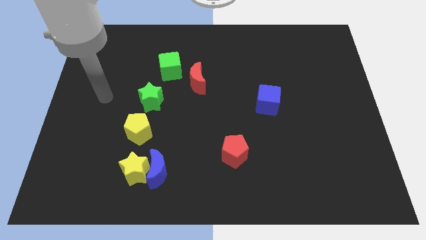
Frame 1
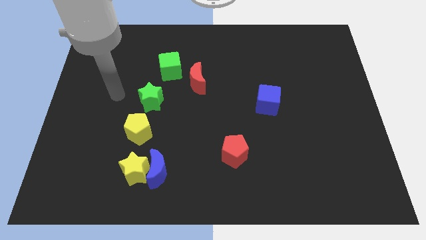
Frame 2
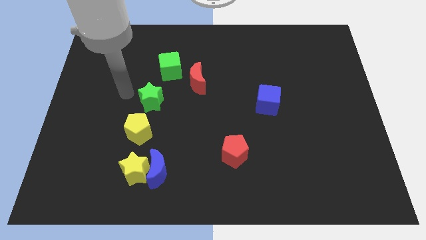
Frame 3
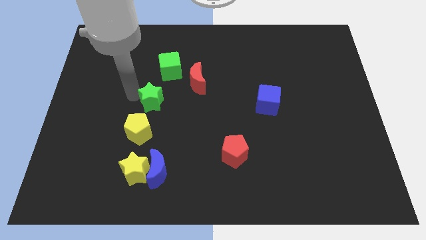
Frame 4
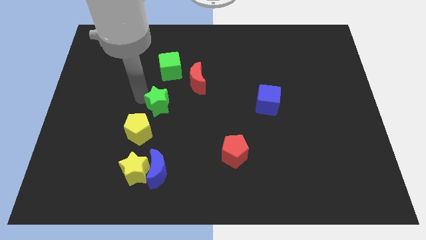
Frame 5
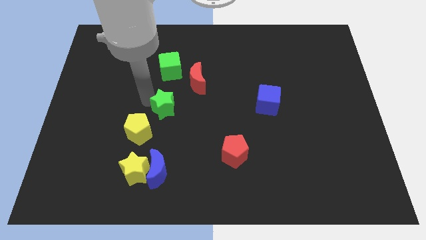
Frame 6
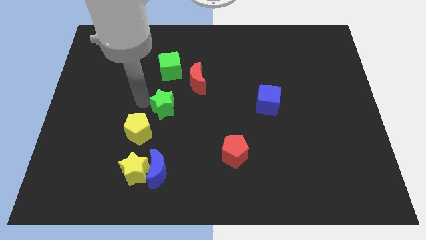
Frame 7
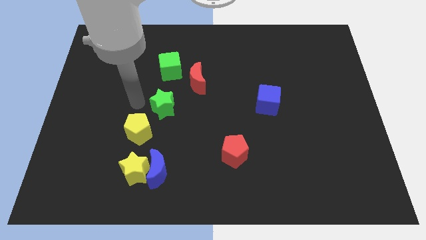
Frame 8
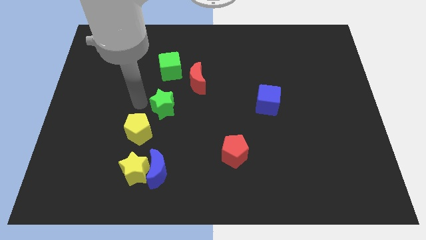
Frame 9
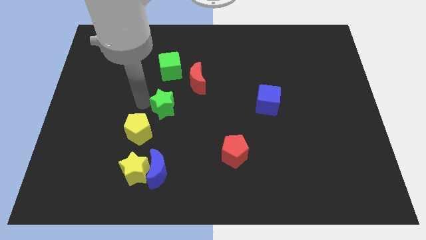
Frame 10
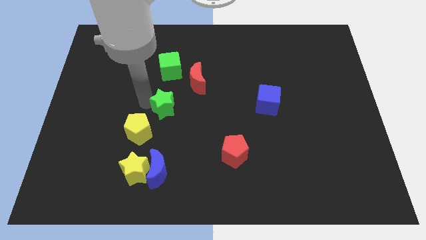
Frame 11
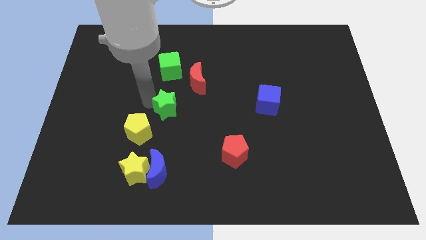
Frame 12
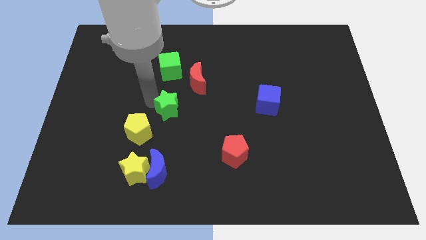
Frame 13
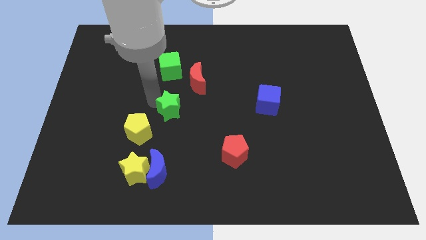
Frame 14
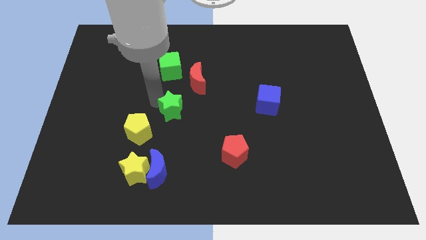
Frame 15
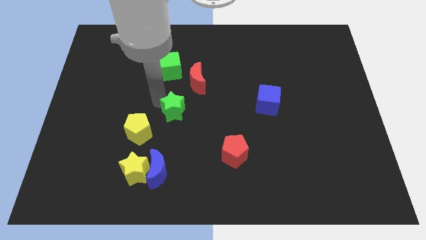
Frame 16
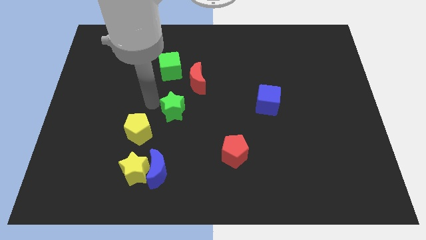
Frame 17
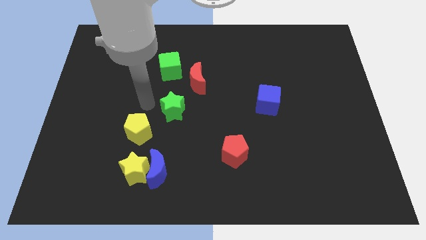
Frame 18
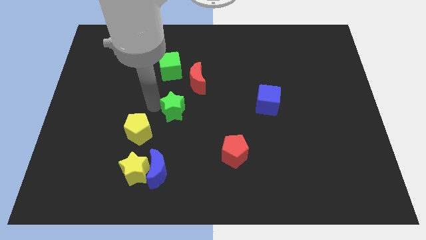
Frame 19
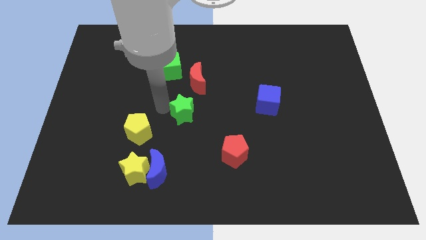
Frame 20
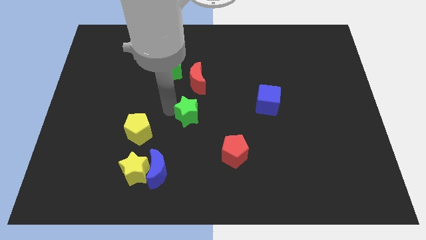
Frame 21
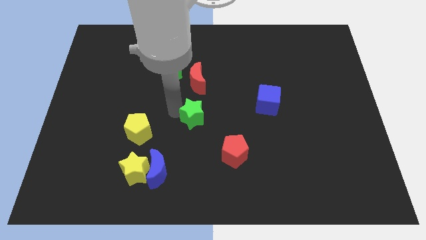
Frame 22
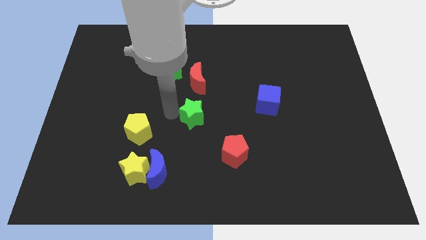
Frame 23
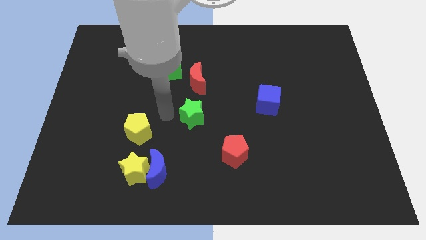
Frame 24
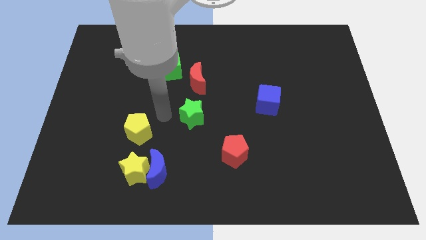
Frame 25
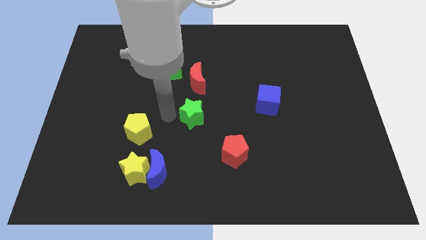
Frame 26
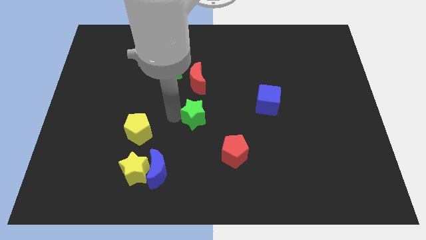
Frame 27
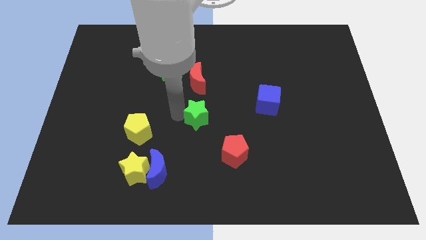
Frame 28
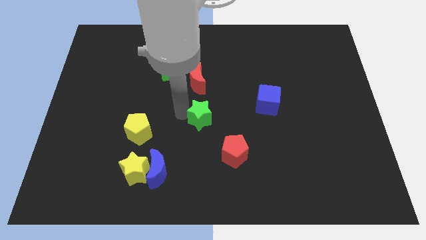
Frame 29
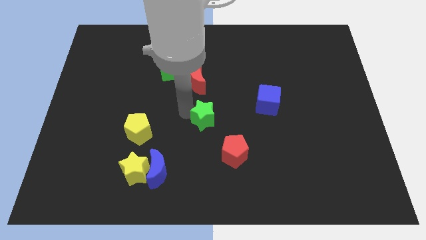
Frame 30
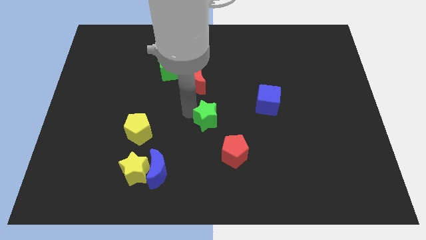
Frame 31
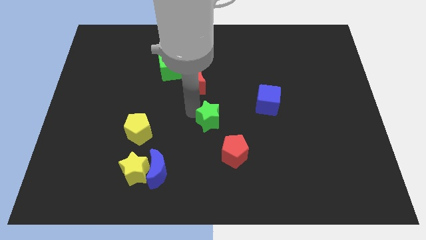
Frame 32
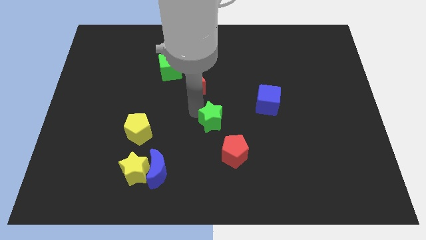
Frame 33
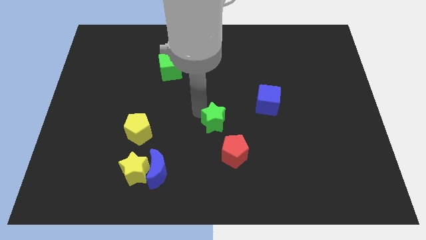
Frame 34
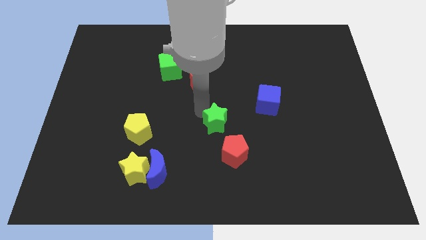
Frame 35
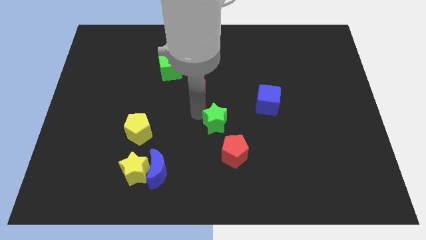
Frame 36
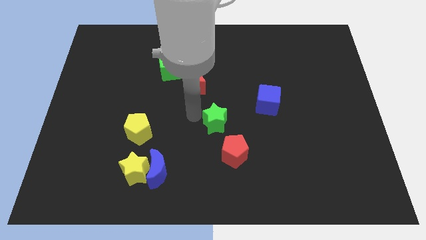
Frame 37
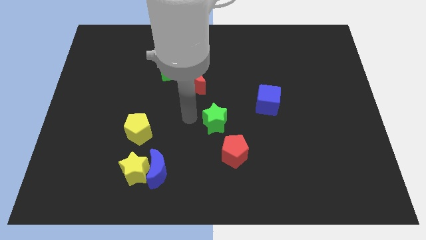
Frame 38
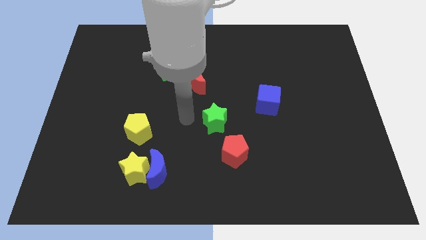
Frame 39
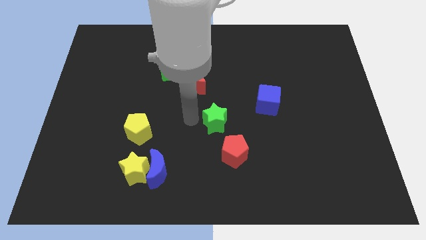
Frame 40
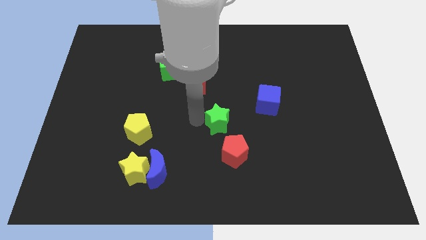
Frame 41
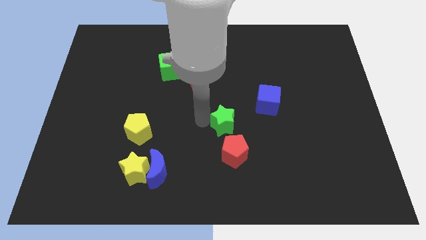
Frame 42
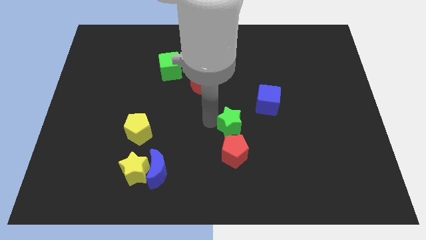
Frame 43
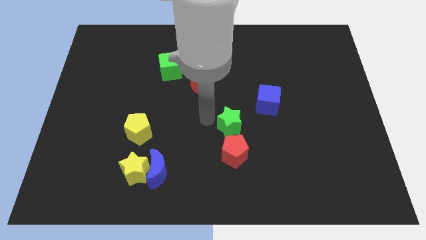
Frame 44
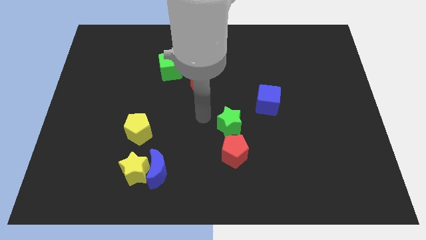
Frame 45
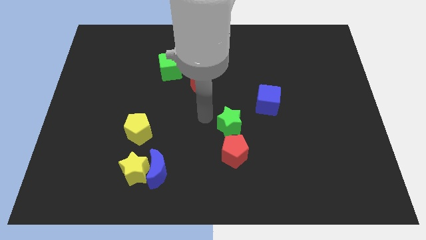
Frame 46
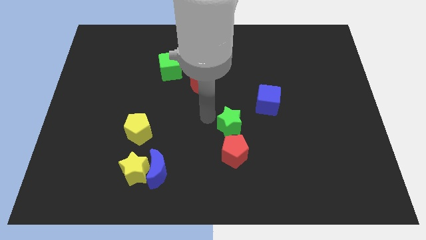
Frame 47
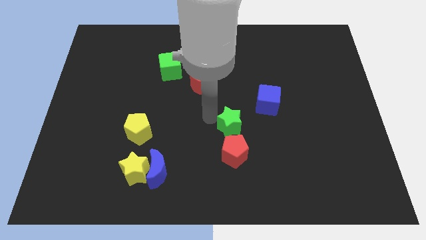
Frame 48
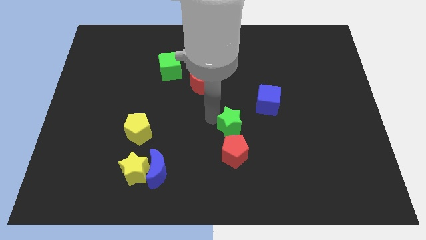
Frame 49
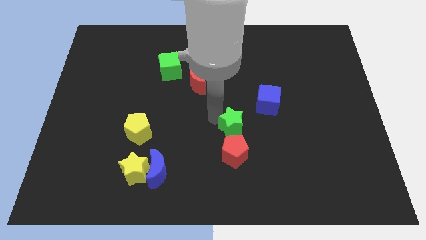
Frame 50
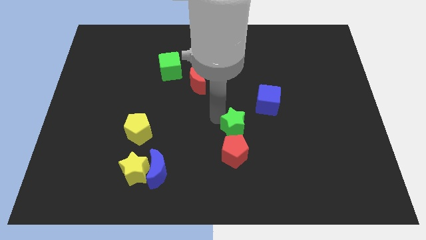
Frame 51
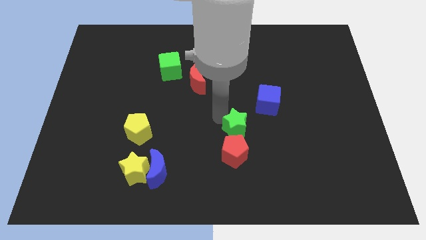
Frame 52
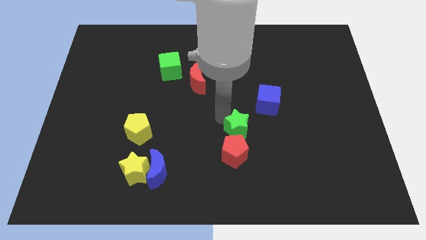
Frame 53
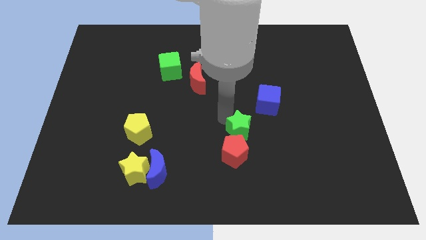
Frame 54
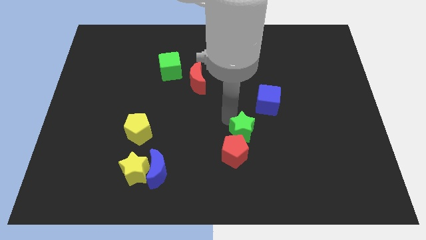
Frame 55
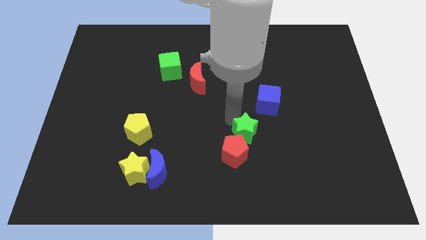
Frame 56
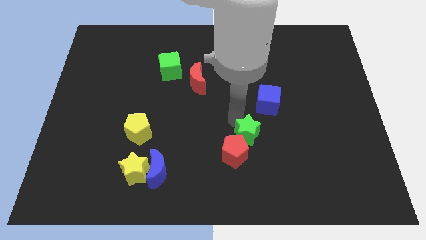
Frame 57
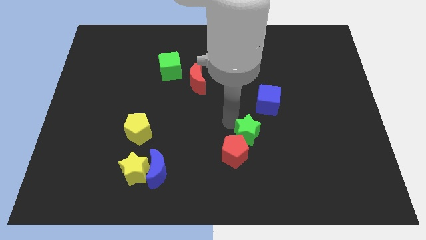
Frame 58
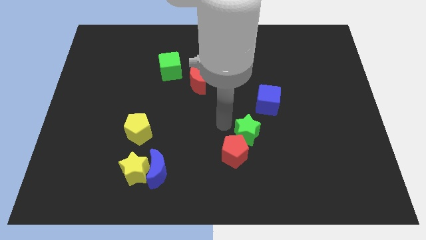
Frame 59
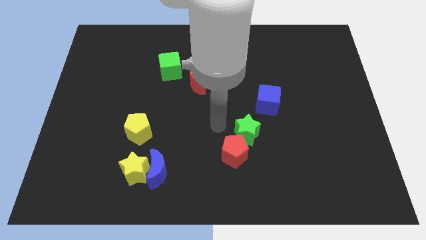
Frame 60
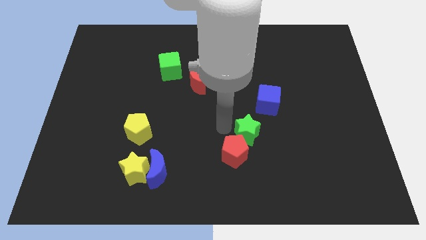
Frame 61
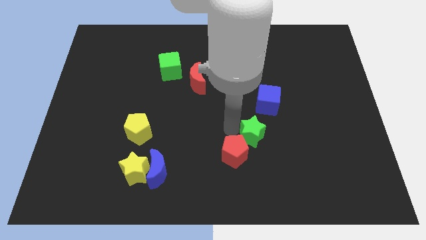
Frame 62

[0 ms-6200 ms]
slide the green star to the bottom of the blue cube

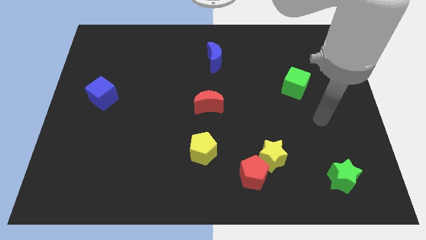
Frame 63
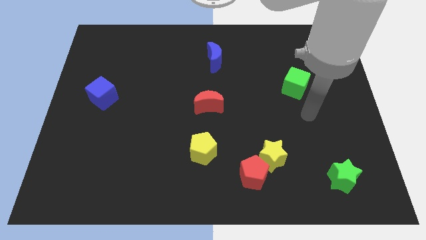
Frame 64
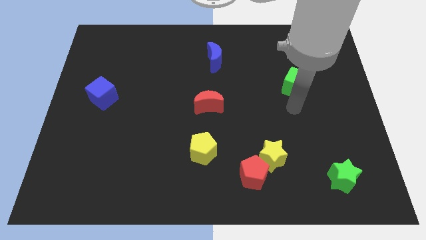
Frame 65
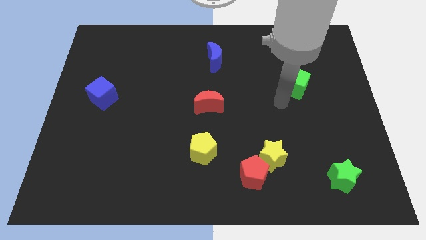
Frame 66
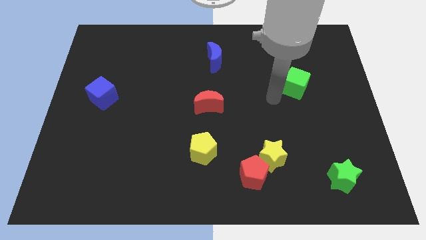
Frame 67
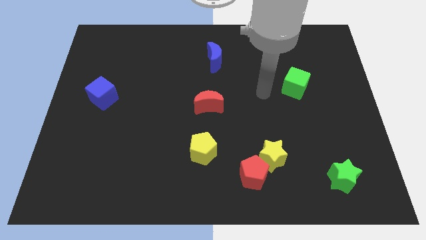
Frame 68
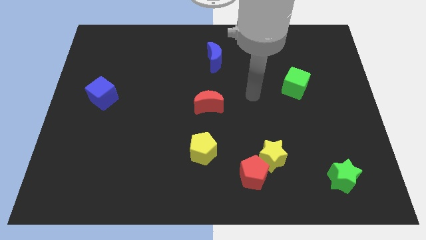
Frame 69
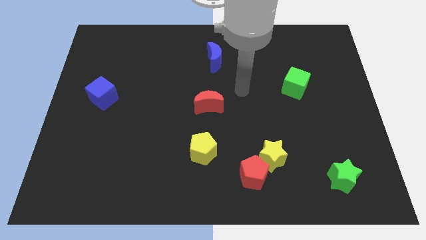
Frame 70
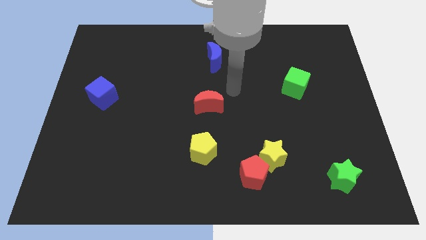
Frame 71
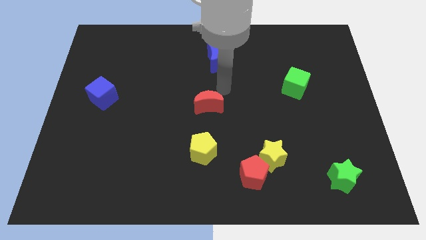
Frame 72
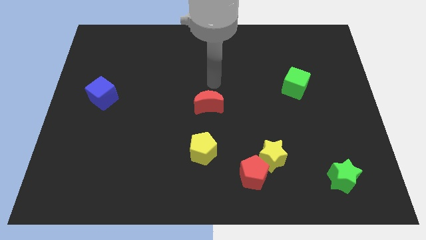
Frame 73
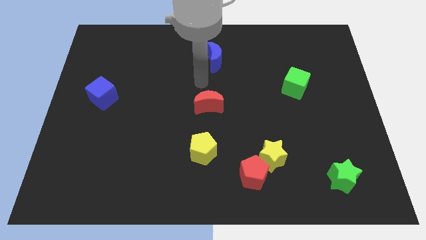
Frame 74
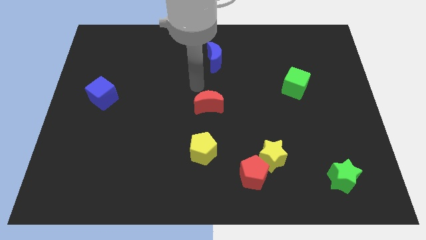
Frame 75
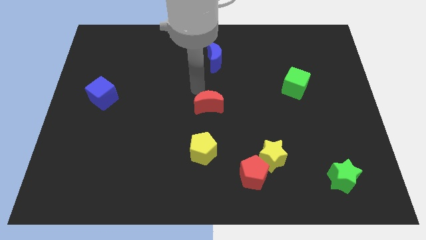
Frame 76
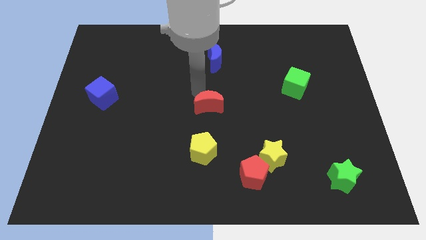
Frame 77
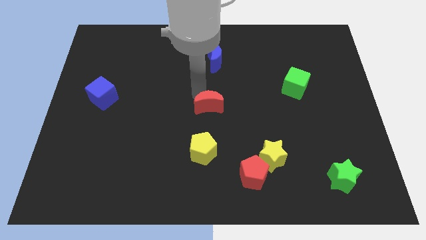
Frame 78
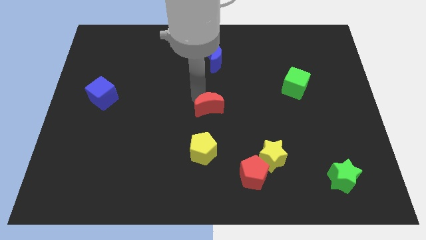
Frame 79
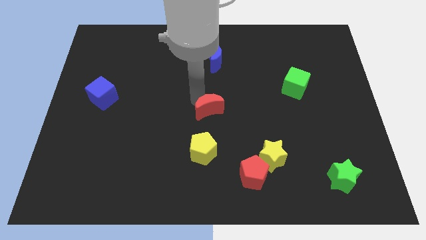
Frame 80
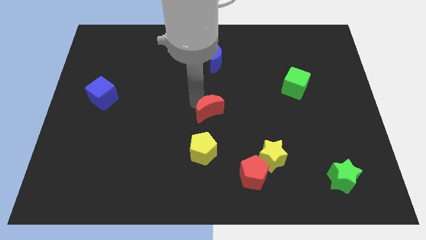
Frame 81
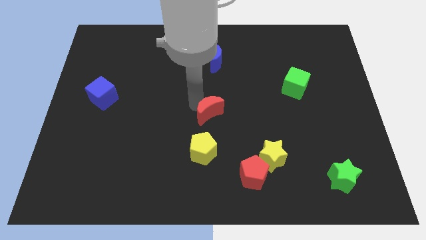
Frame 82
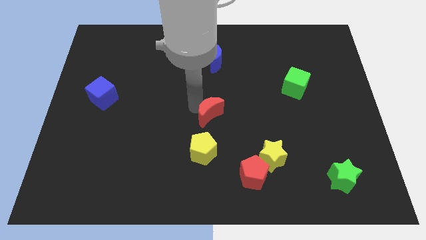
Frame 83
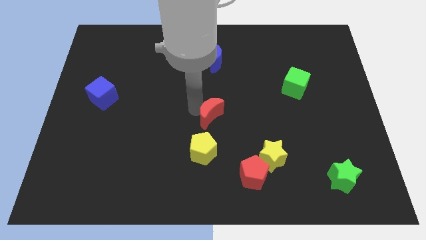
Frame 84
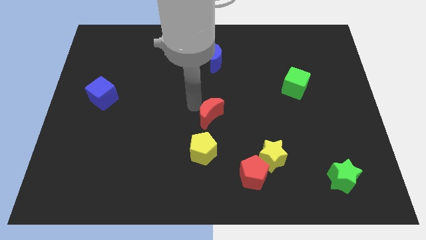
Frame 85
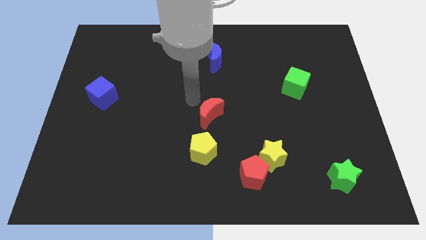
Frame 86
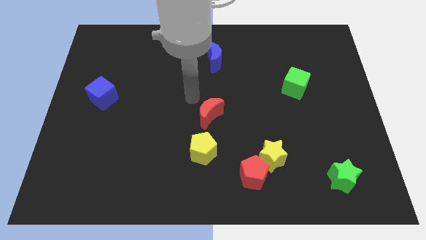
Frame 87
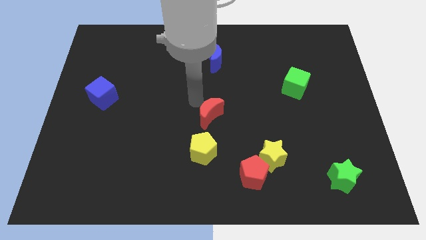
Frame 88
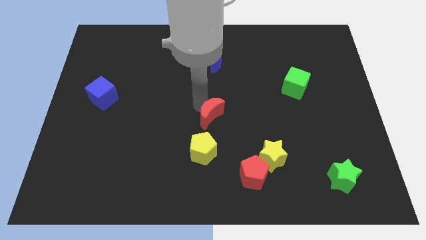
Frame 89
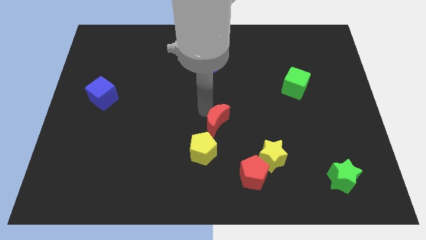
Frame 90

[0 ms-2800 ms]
put the red moon to the top right side of the yellow pentagon
